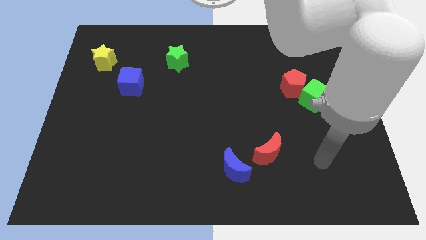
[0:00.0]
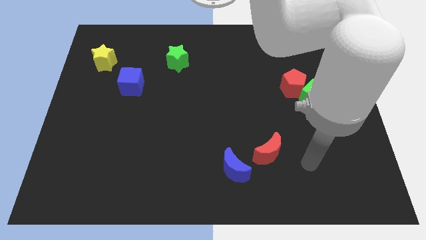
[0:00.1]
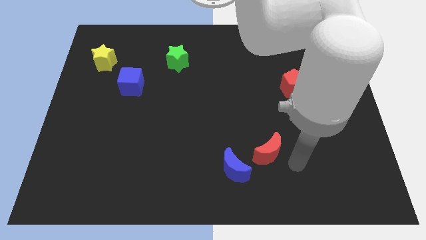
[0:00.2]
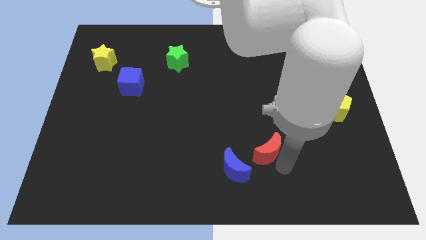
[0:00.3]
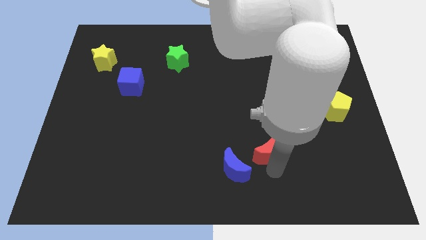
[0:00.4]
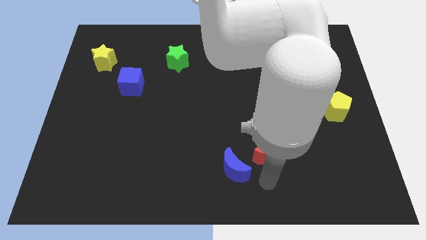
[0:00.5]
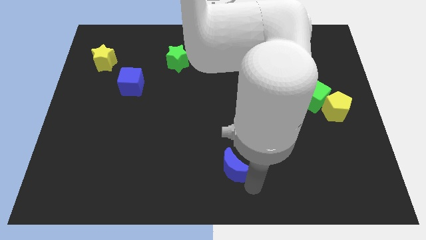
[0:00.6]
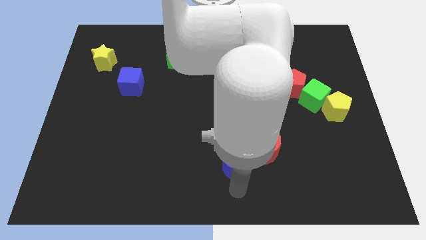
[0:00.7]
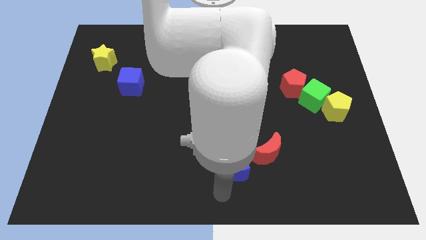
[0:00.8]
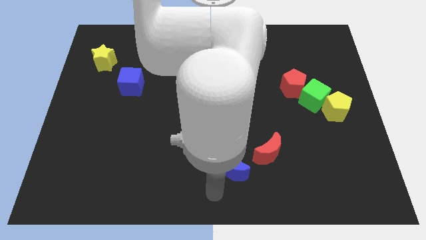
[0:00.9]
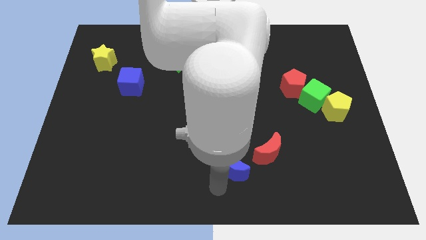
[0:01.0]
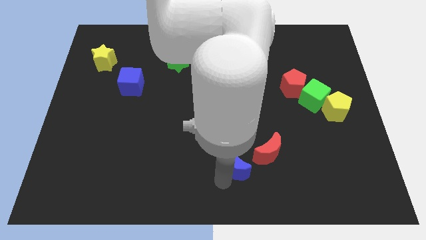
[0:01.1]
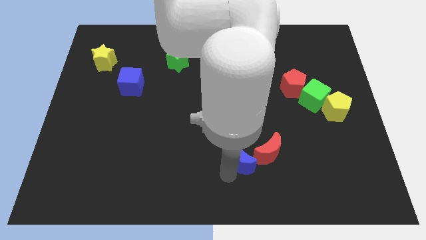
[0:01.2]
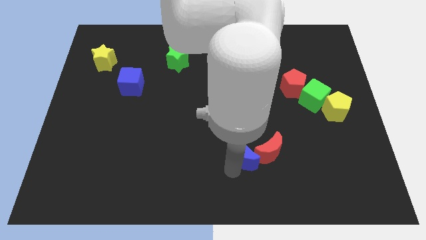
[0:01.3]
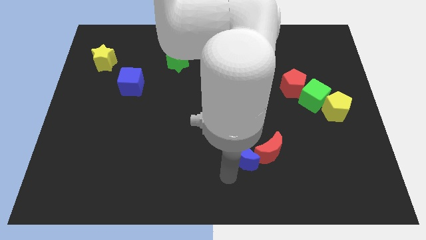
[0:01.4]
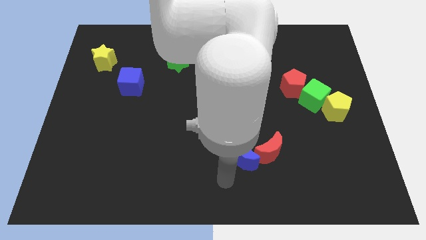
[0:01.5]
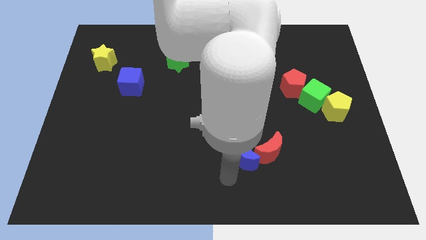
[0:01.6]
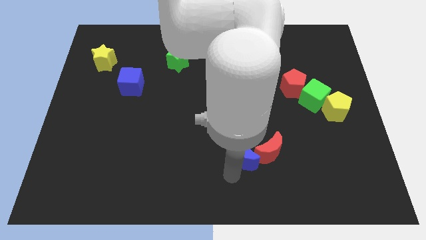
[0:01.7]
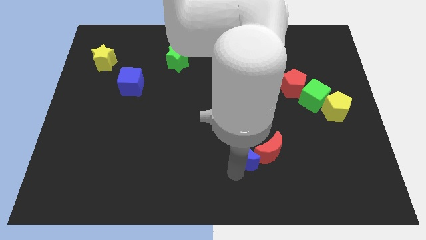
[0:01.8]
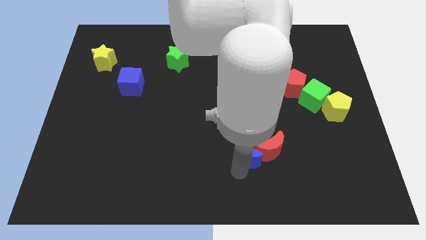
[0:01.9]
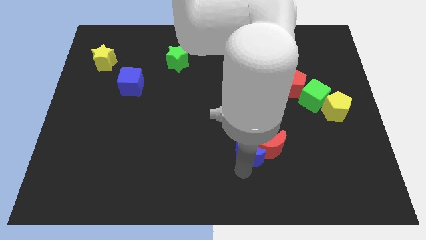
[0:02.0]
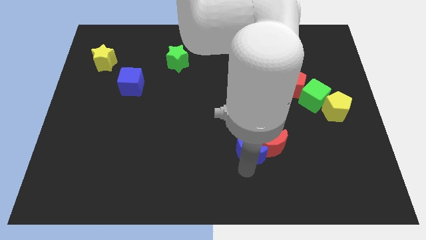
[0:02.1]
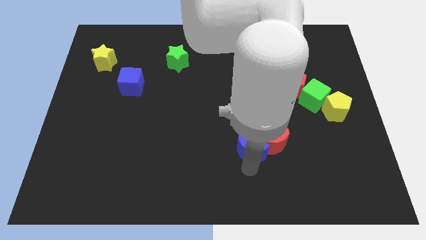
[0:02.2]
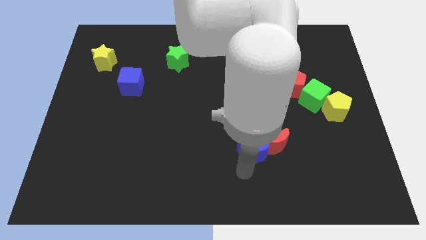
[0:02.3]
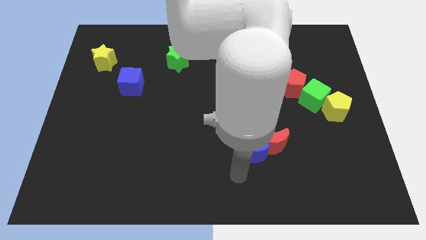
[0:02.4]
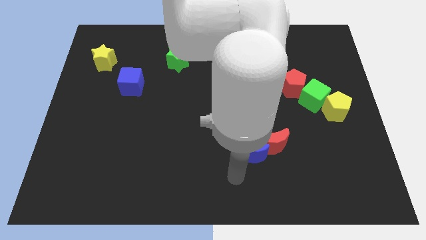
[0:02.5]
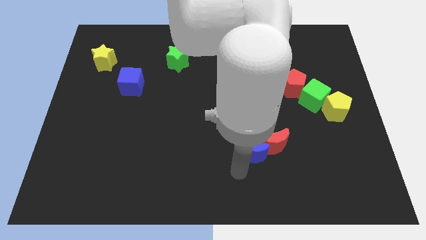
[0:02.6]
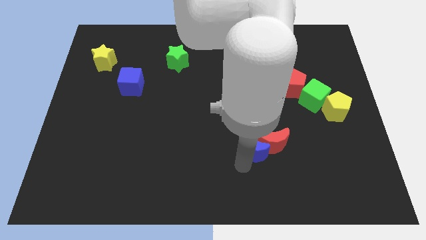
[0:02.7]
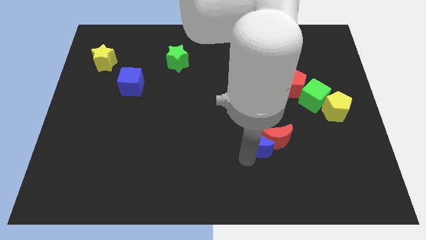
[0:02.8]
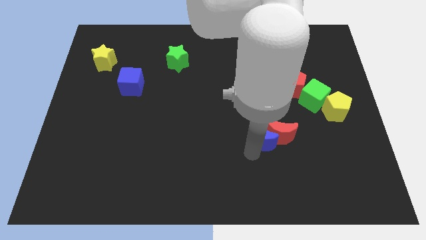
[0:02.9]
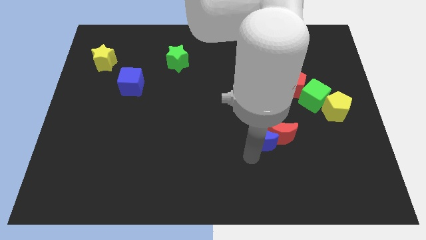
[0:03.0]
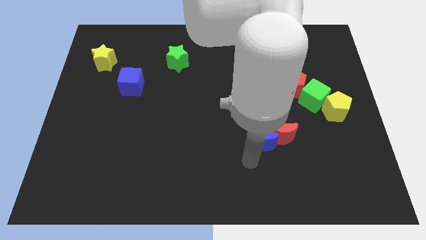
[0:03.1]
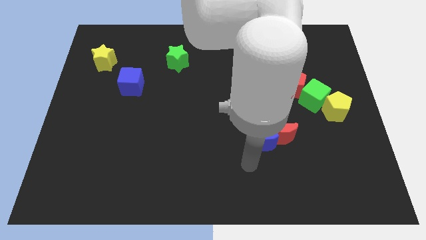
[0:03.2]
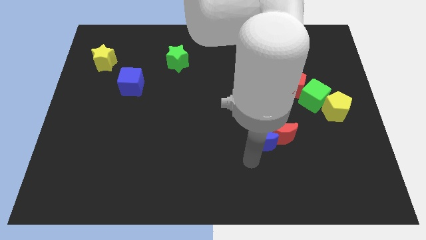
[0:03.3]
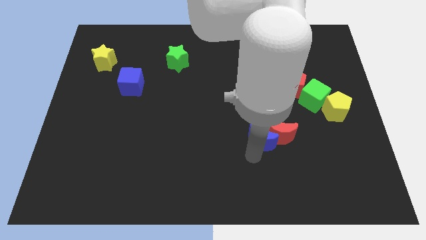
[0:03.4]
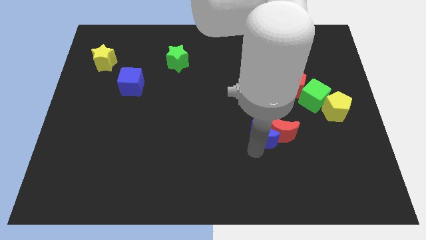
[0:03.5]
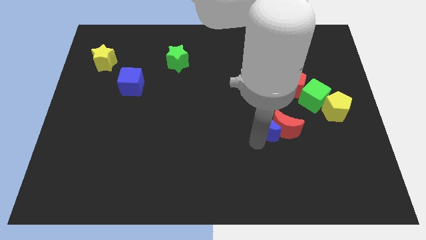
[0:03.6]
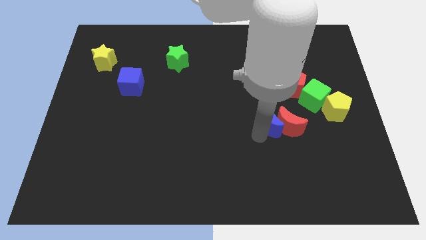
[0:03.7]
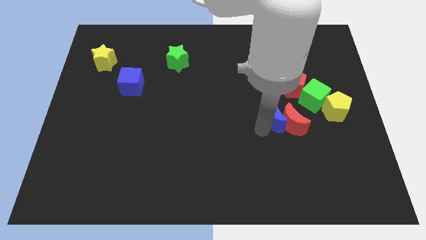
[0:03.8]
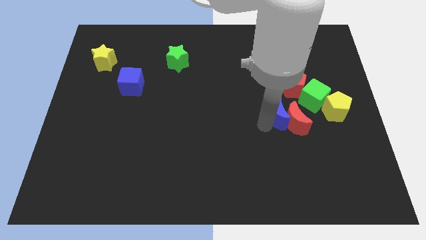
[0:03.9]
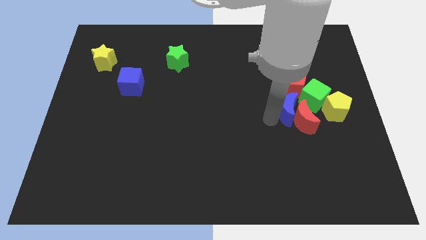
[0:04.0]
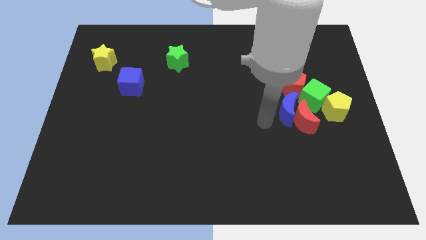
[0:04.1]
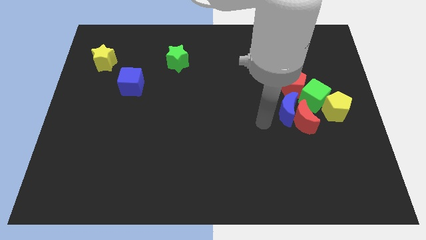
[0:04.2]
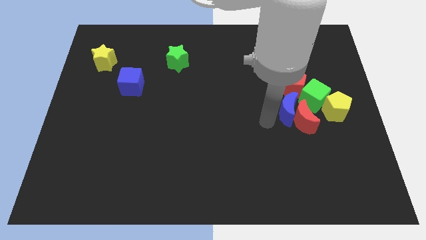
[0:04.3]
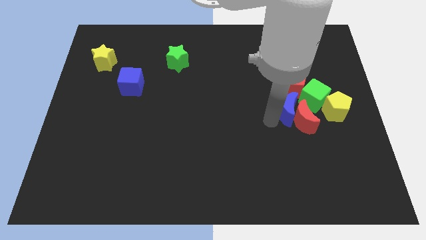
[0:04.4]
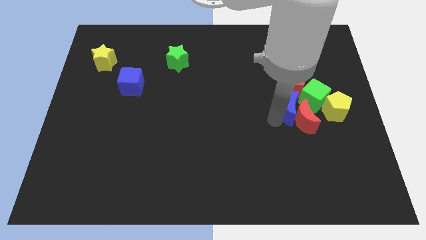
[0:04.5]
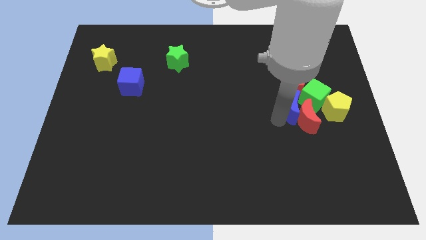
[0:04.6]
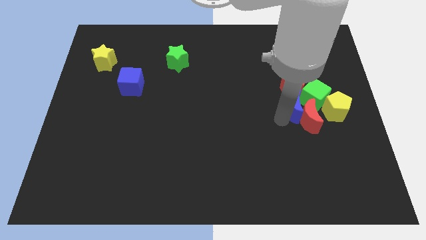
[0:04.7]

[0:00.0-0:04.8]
slide the blue moon to the green cube

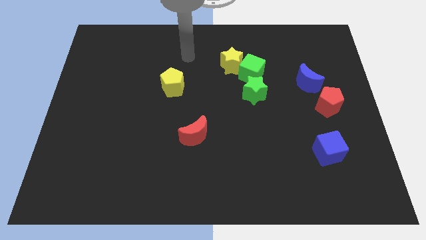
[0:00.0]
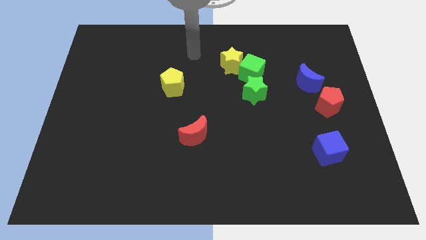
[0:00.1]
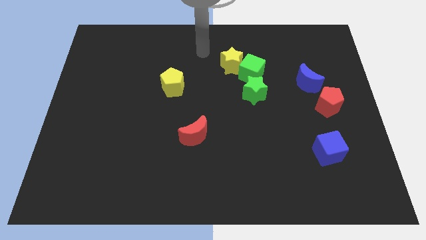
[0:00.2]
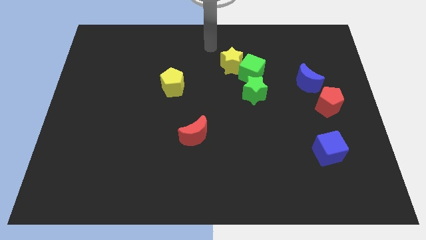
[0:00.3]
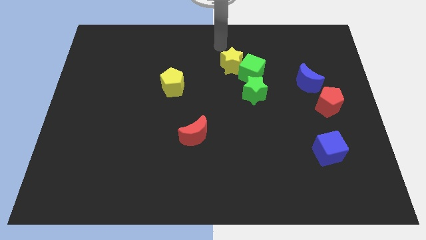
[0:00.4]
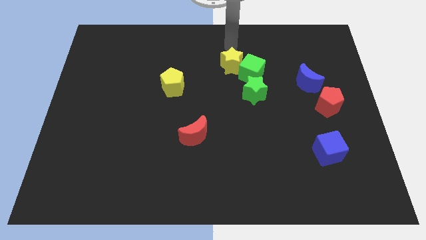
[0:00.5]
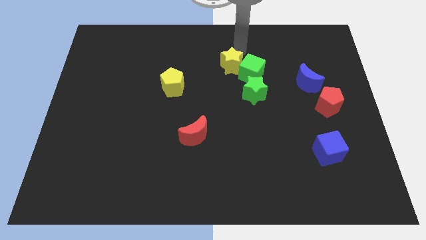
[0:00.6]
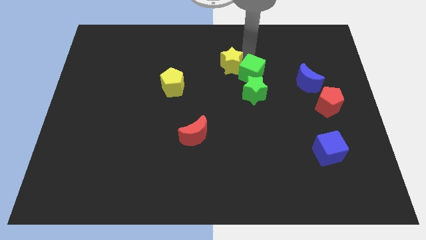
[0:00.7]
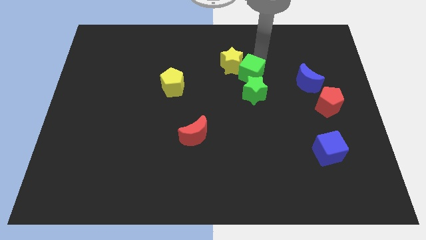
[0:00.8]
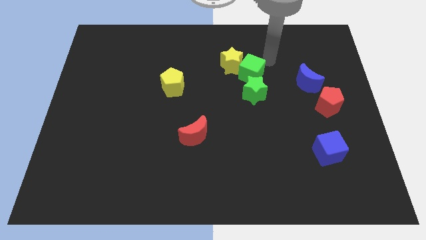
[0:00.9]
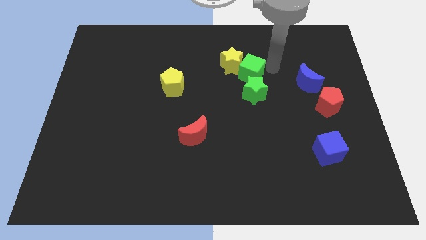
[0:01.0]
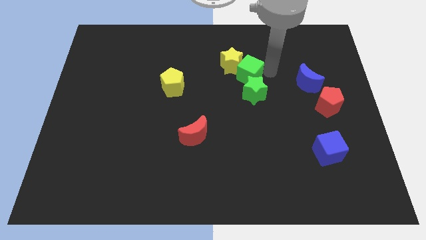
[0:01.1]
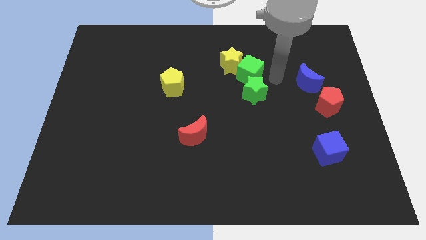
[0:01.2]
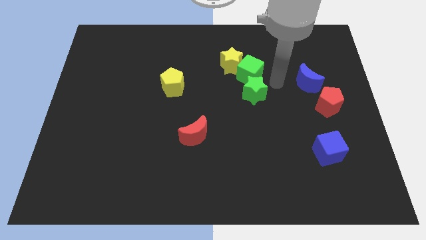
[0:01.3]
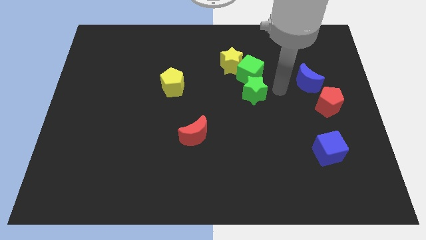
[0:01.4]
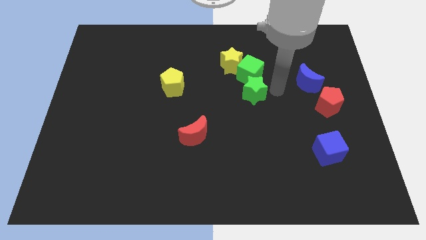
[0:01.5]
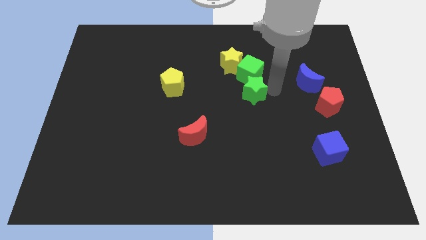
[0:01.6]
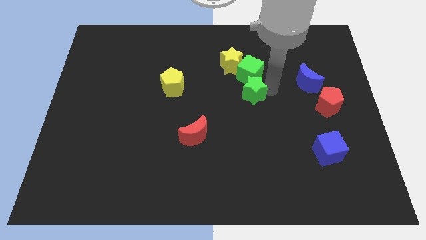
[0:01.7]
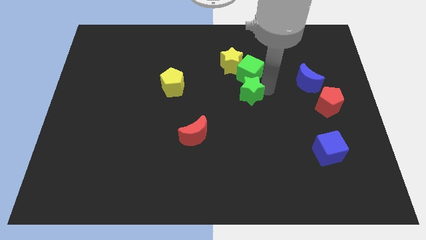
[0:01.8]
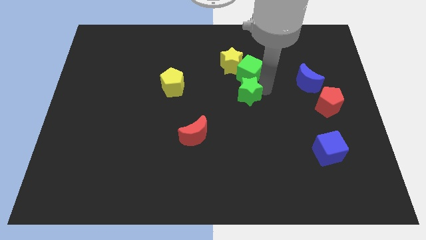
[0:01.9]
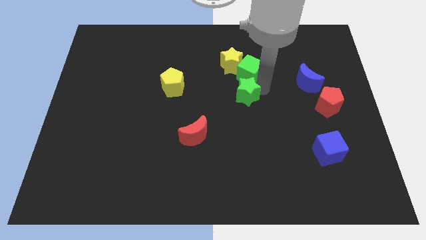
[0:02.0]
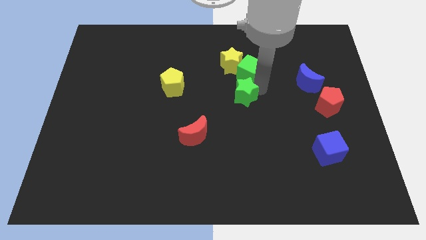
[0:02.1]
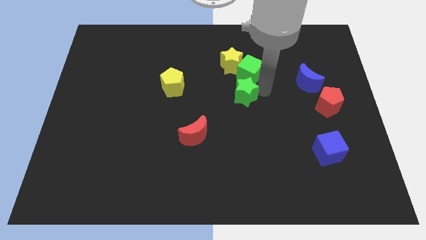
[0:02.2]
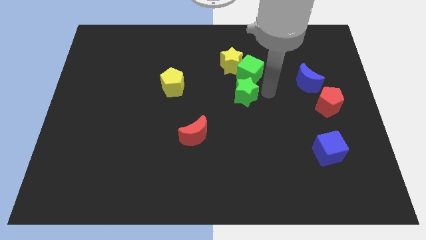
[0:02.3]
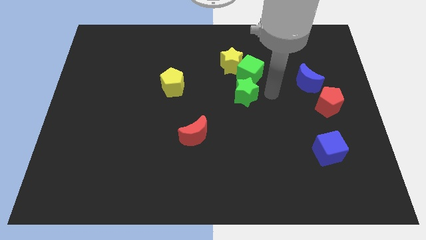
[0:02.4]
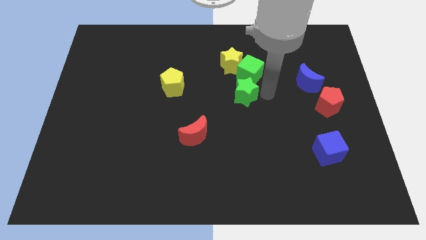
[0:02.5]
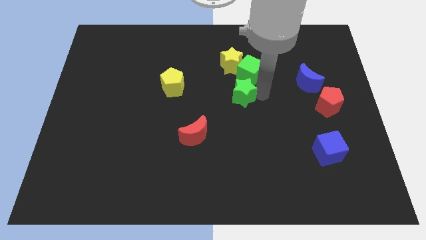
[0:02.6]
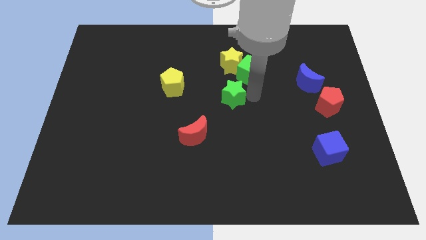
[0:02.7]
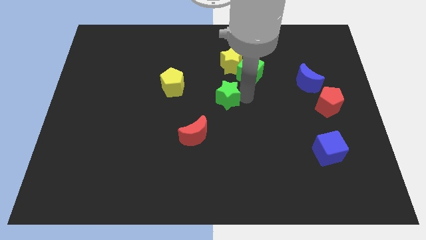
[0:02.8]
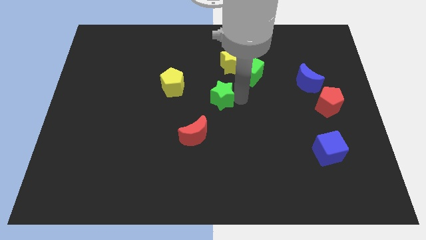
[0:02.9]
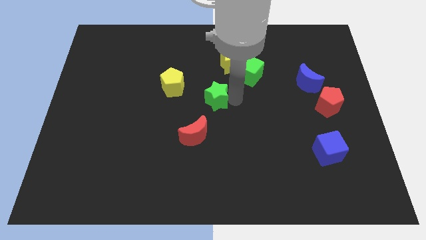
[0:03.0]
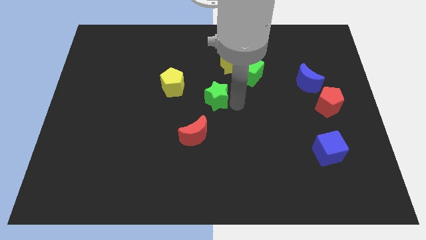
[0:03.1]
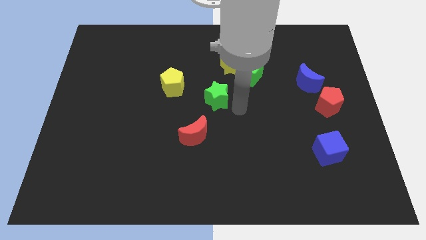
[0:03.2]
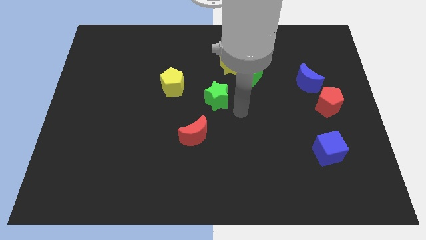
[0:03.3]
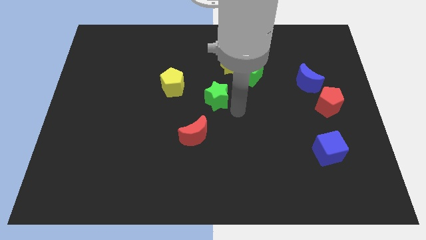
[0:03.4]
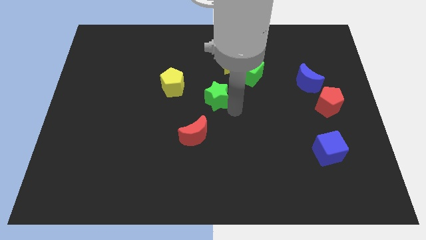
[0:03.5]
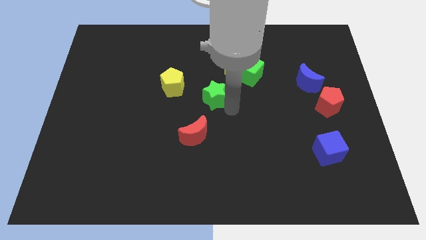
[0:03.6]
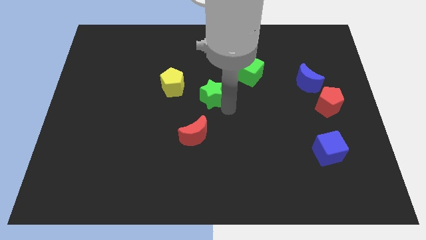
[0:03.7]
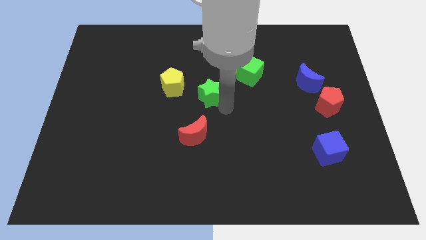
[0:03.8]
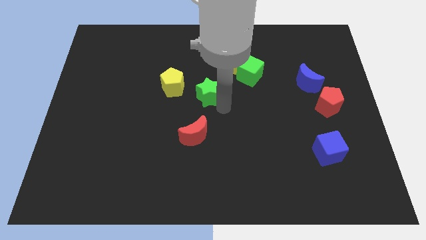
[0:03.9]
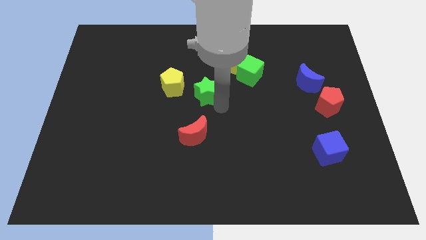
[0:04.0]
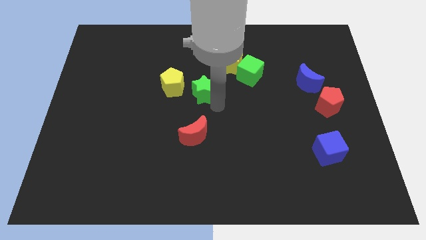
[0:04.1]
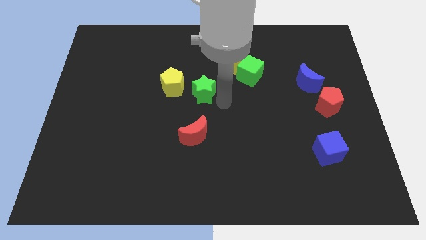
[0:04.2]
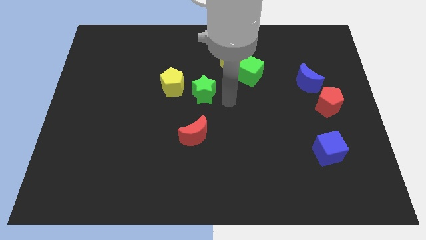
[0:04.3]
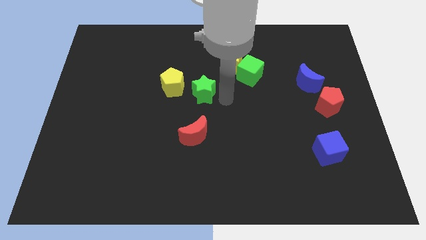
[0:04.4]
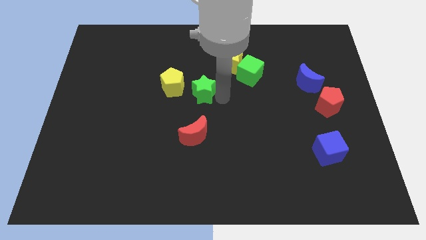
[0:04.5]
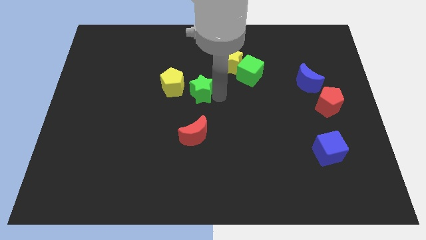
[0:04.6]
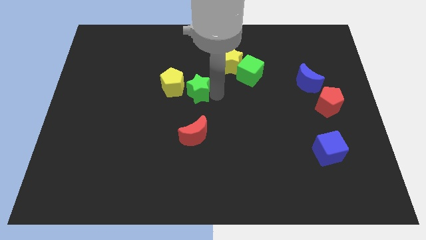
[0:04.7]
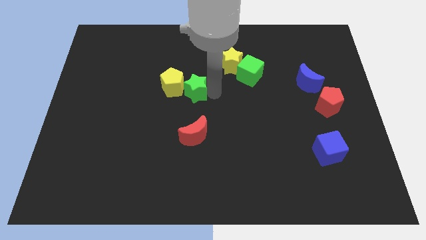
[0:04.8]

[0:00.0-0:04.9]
slide the green star close to the yellow pentagon
